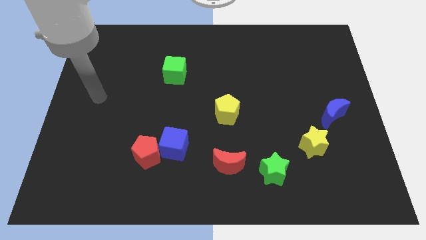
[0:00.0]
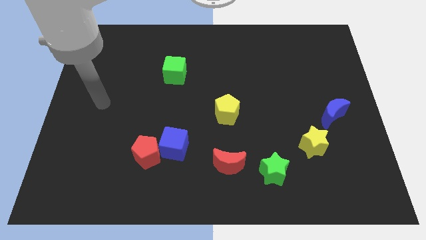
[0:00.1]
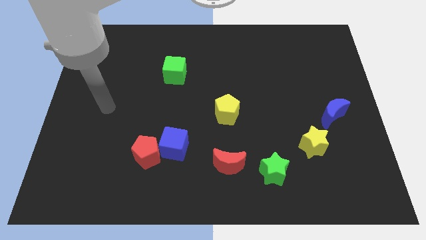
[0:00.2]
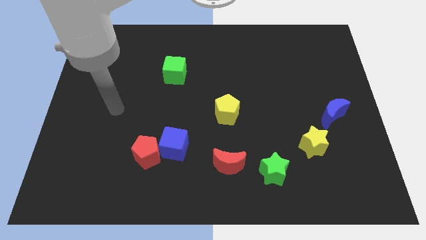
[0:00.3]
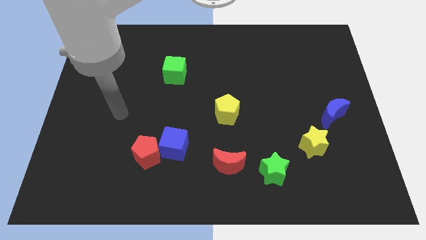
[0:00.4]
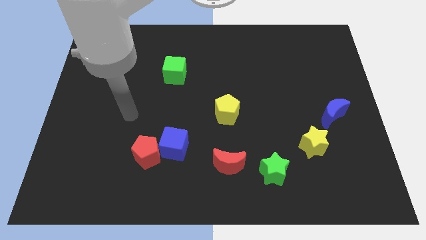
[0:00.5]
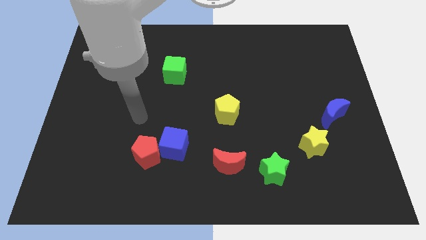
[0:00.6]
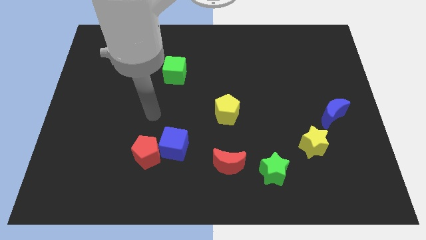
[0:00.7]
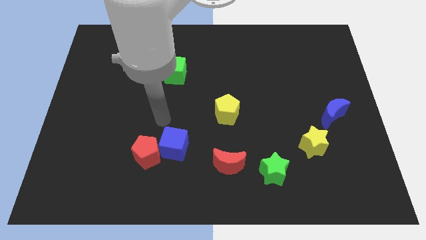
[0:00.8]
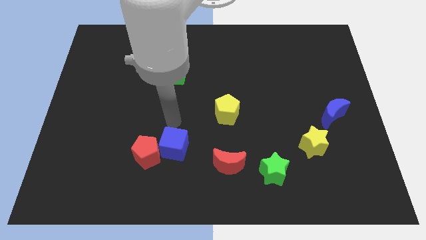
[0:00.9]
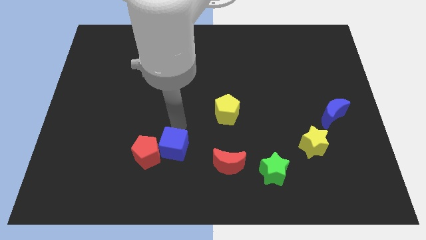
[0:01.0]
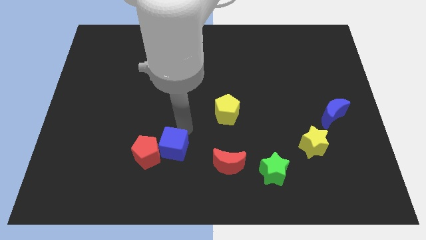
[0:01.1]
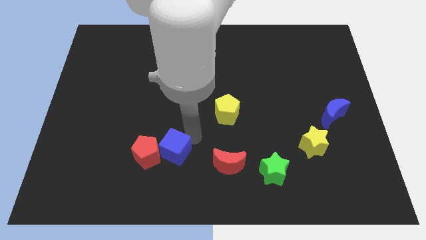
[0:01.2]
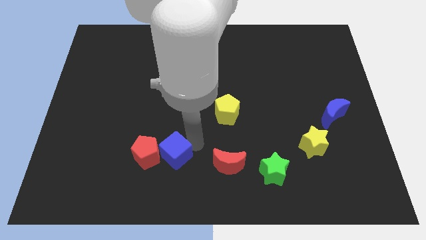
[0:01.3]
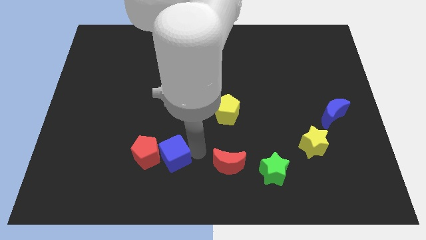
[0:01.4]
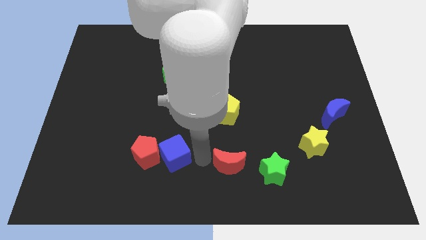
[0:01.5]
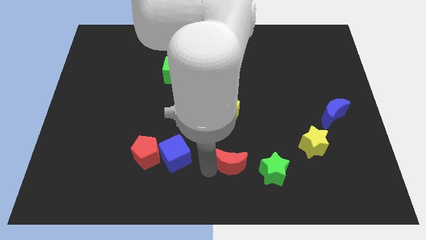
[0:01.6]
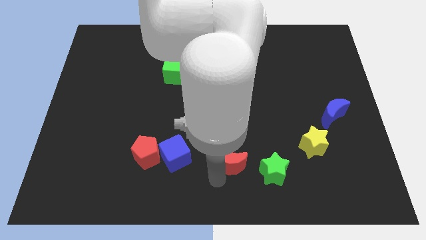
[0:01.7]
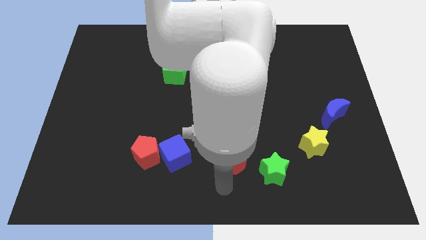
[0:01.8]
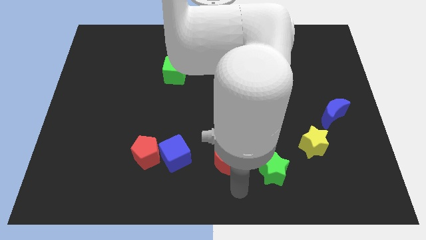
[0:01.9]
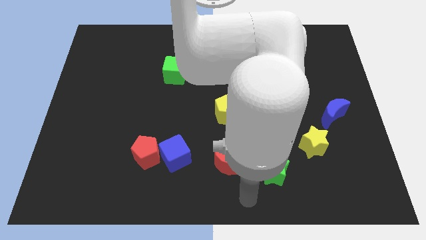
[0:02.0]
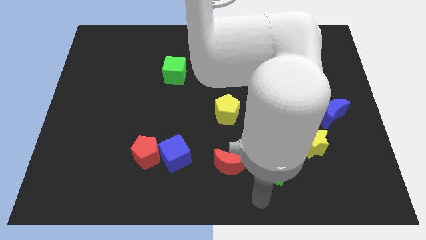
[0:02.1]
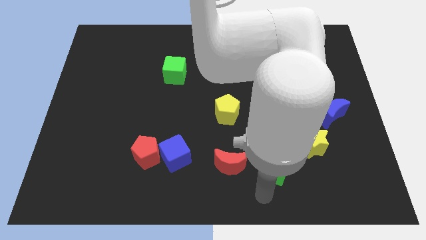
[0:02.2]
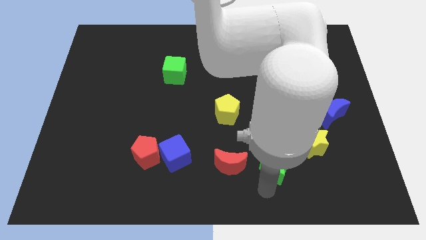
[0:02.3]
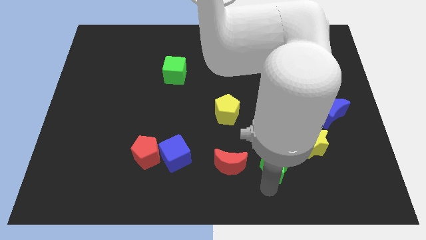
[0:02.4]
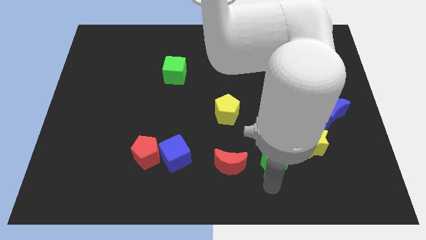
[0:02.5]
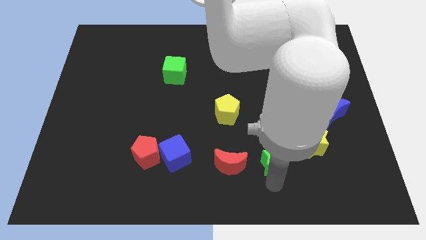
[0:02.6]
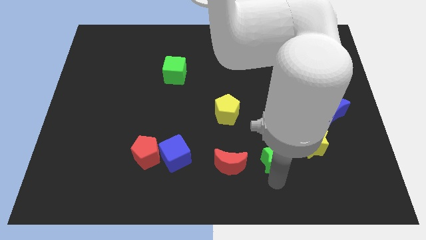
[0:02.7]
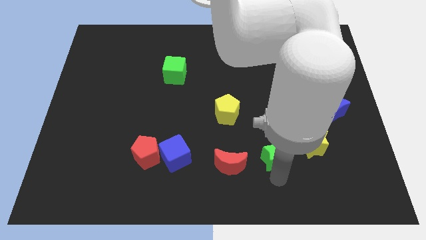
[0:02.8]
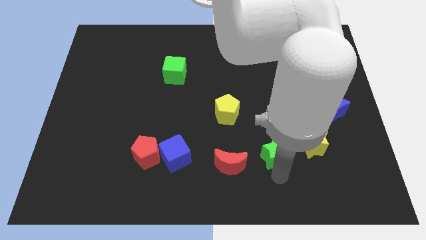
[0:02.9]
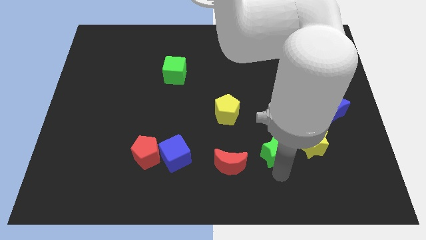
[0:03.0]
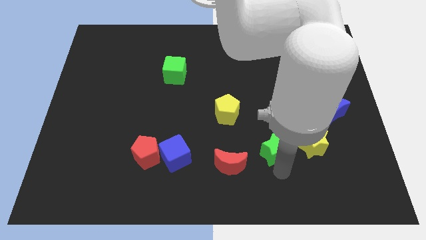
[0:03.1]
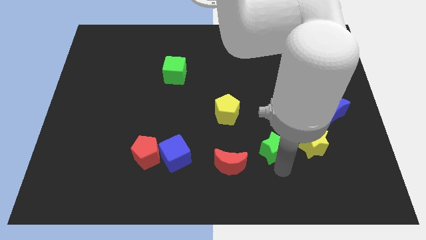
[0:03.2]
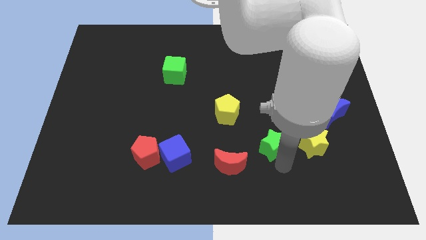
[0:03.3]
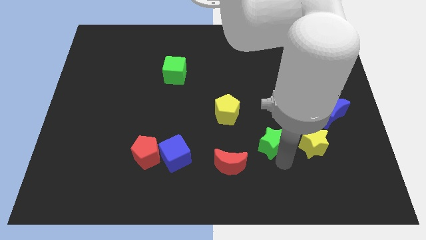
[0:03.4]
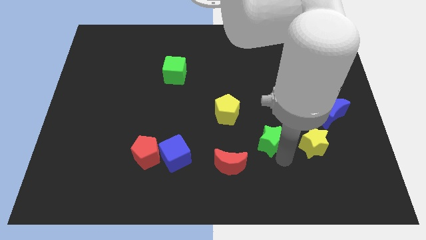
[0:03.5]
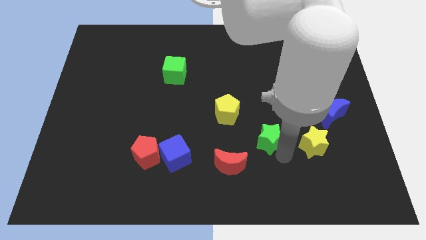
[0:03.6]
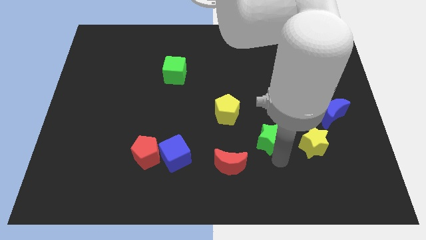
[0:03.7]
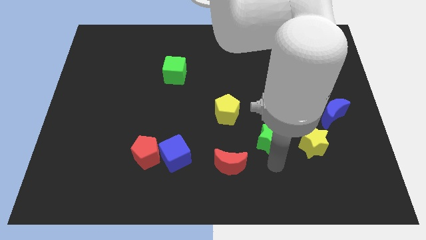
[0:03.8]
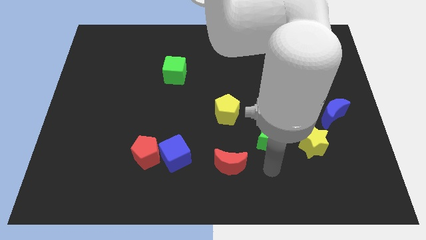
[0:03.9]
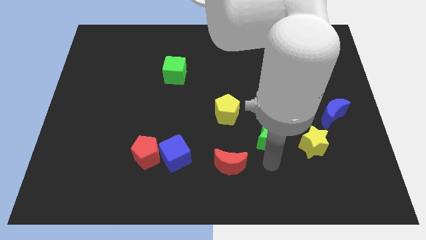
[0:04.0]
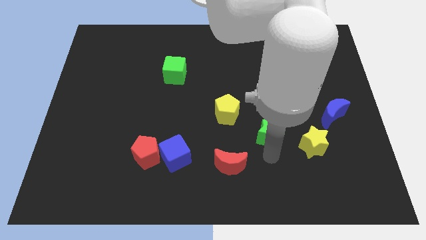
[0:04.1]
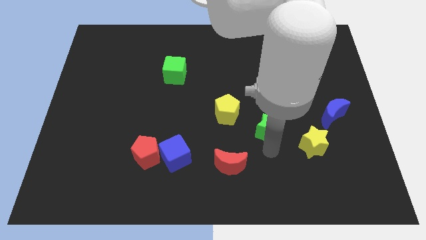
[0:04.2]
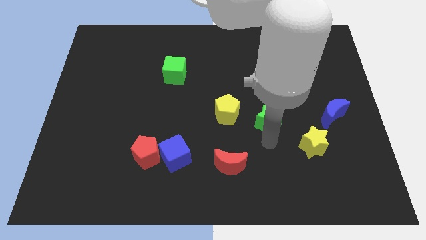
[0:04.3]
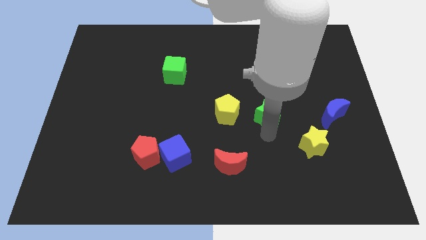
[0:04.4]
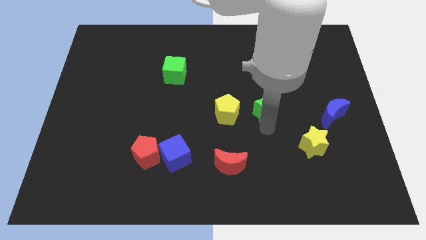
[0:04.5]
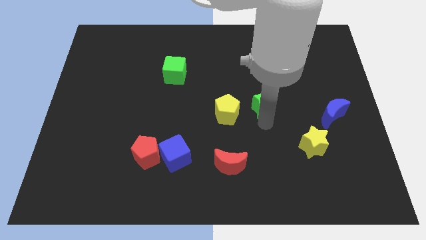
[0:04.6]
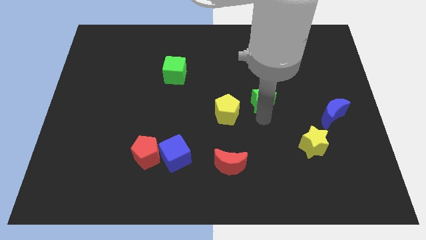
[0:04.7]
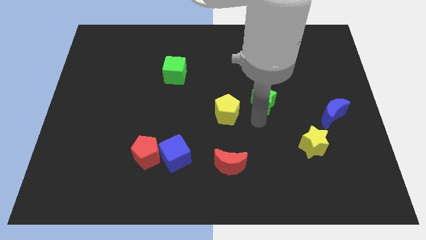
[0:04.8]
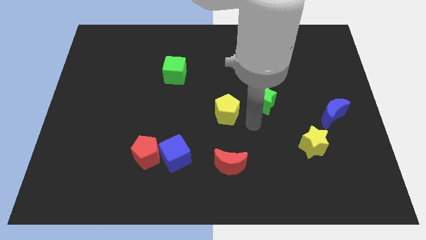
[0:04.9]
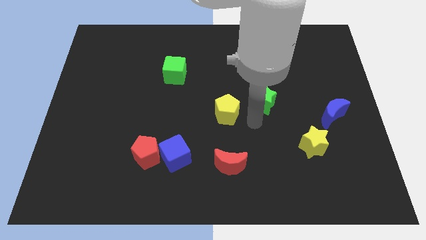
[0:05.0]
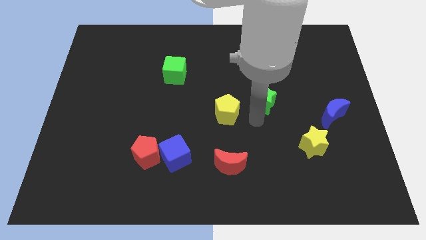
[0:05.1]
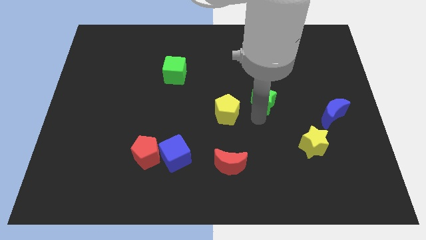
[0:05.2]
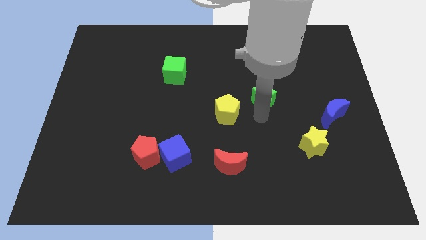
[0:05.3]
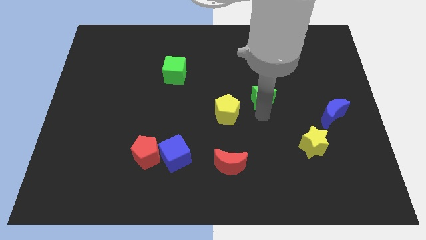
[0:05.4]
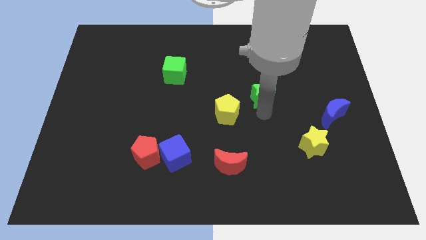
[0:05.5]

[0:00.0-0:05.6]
push the green star upwards

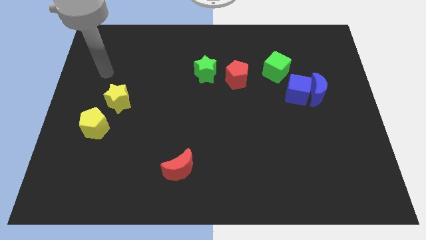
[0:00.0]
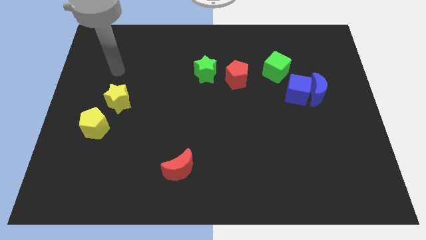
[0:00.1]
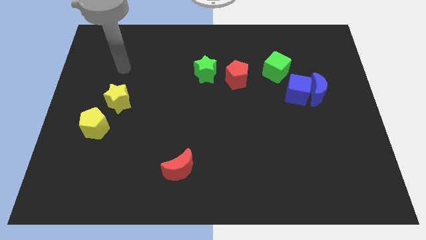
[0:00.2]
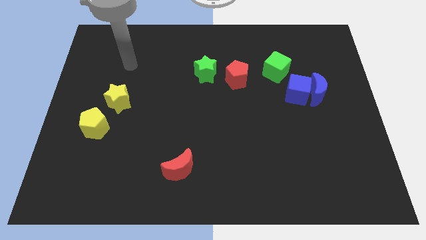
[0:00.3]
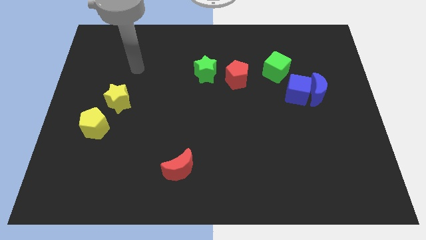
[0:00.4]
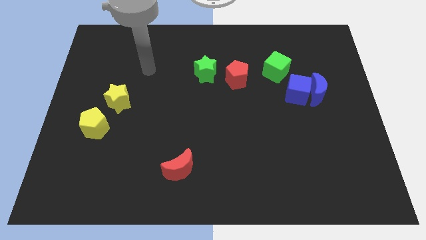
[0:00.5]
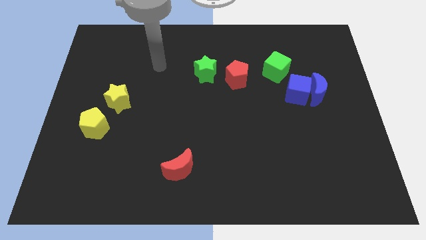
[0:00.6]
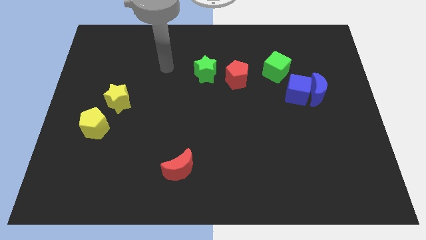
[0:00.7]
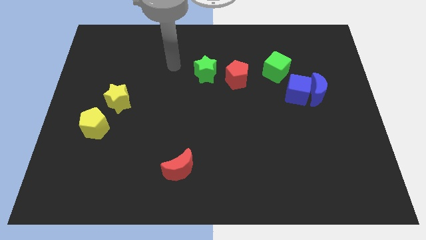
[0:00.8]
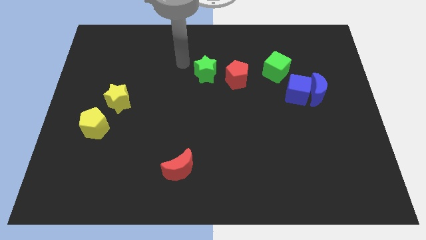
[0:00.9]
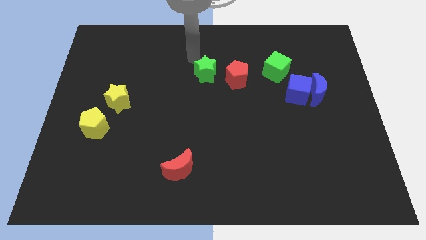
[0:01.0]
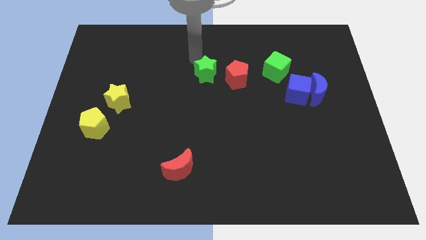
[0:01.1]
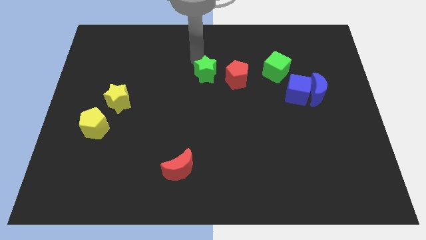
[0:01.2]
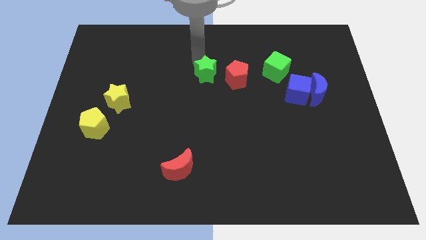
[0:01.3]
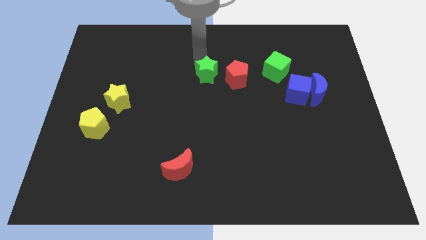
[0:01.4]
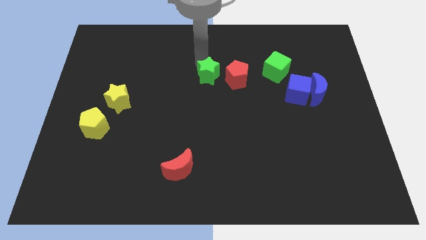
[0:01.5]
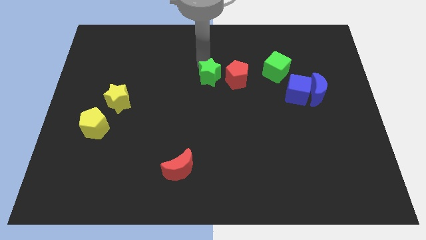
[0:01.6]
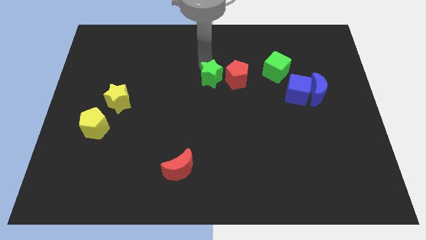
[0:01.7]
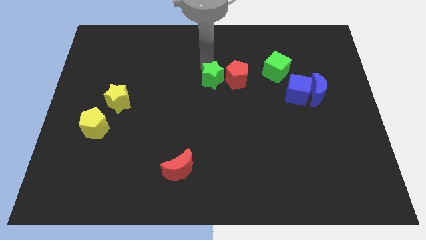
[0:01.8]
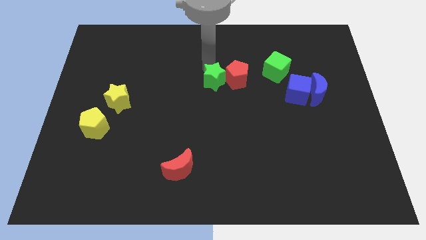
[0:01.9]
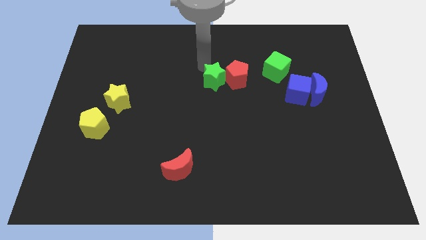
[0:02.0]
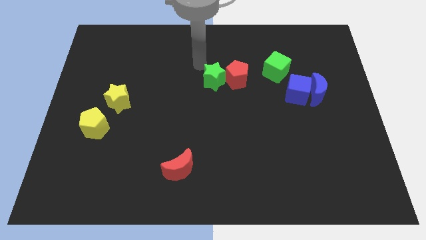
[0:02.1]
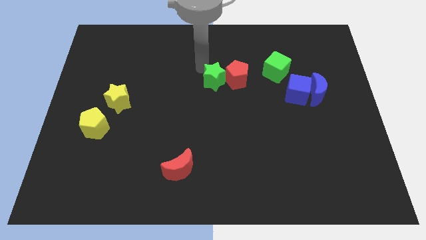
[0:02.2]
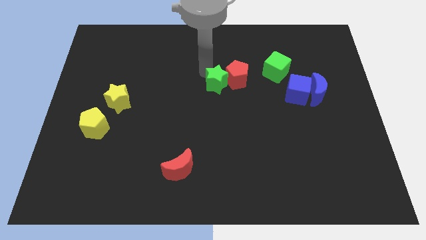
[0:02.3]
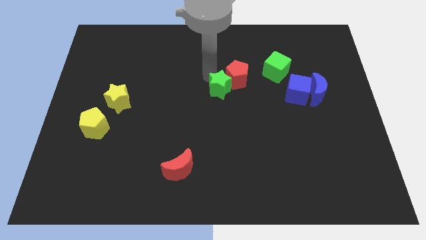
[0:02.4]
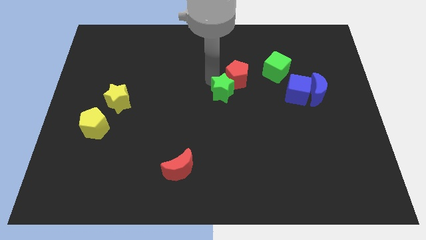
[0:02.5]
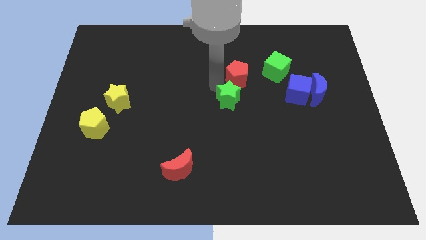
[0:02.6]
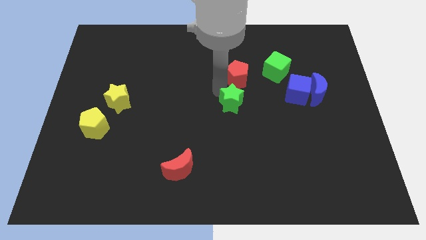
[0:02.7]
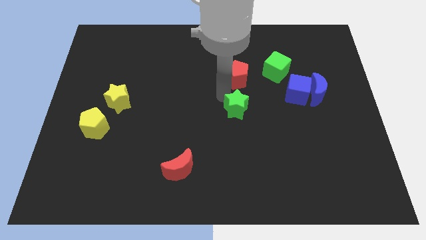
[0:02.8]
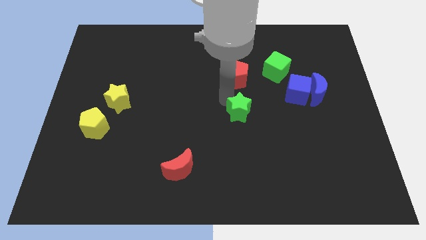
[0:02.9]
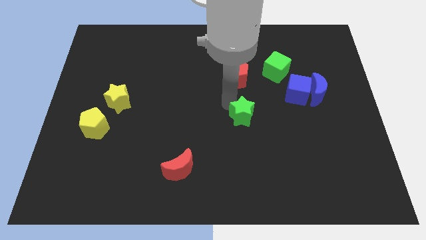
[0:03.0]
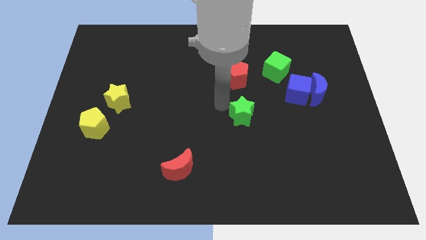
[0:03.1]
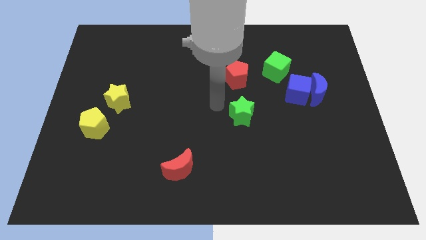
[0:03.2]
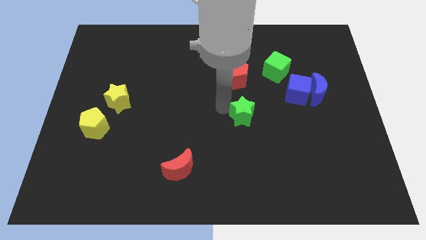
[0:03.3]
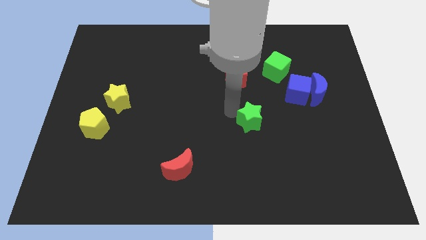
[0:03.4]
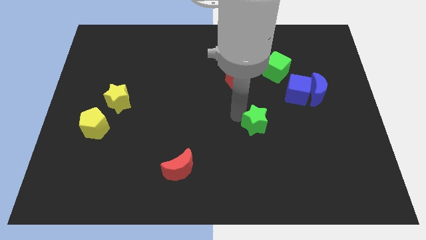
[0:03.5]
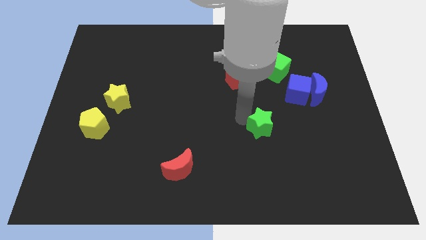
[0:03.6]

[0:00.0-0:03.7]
move the green star downwards and right diagonally
